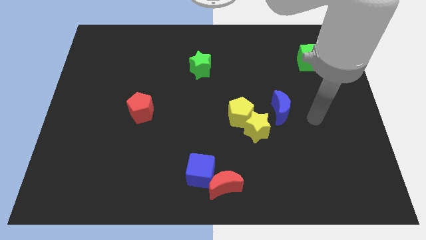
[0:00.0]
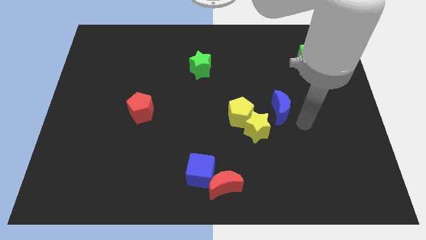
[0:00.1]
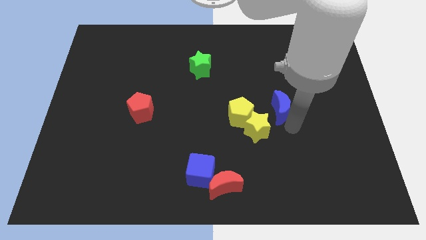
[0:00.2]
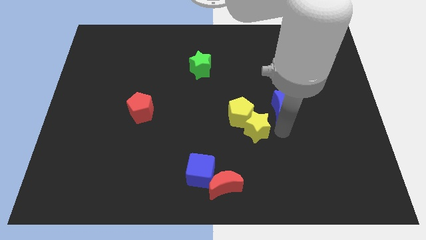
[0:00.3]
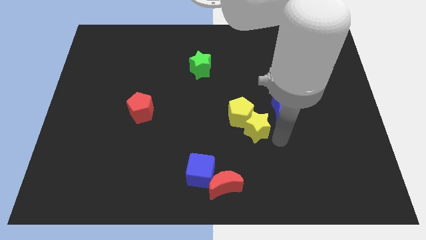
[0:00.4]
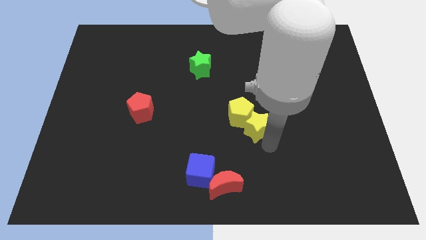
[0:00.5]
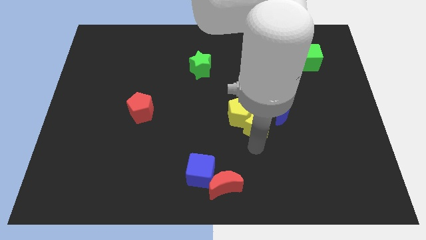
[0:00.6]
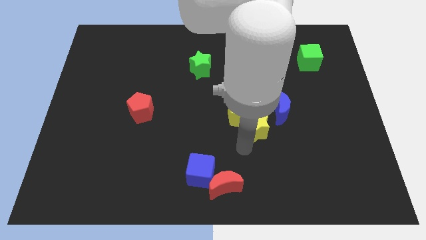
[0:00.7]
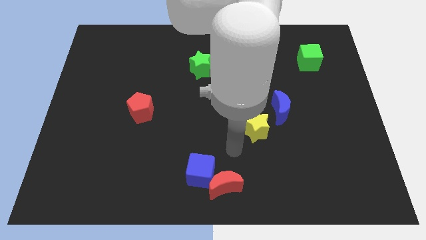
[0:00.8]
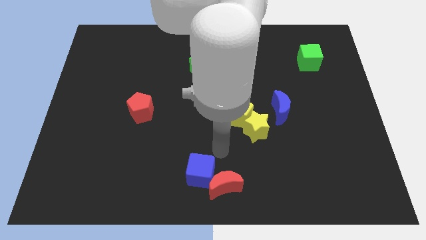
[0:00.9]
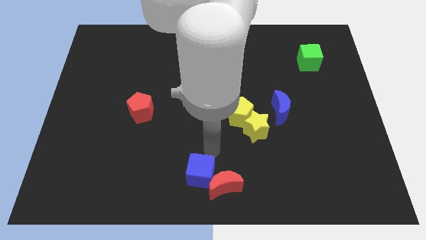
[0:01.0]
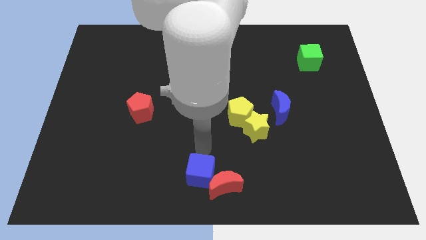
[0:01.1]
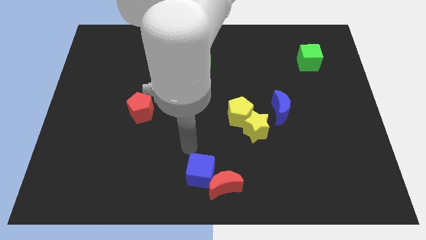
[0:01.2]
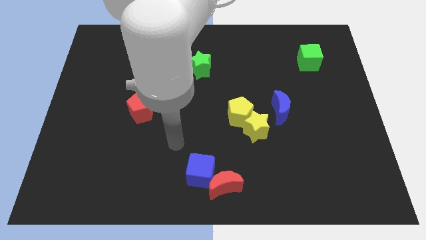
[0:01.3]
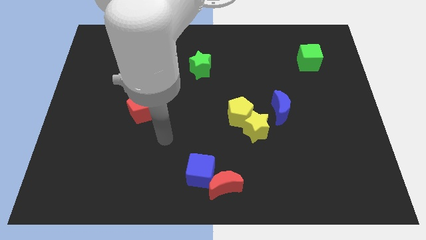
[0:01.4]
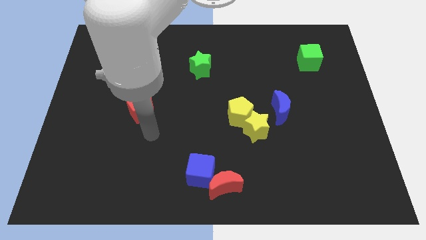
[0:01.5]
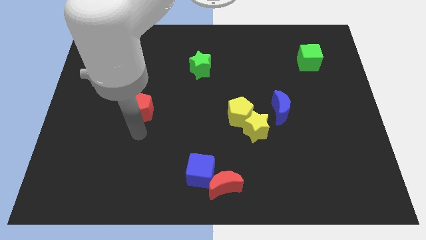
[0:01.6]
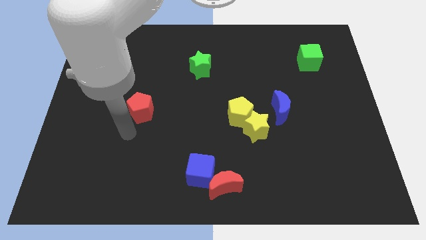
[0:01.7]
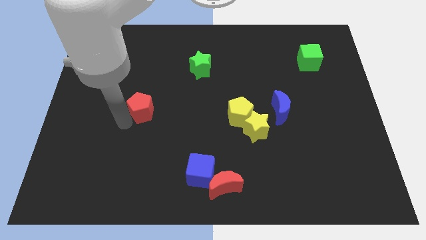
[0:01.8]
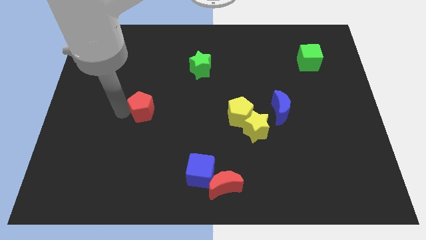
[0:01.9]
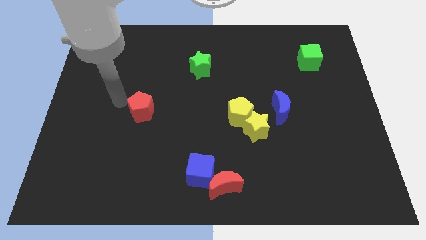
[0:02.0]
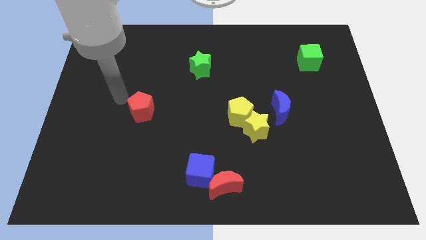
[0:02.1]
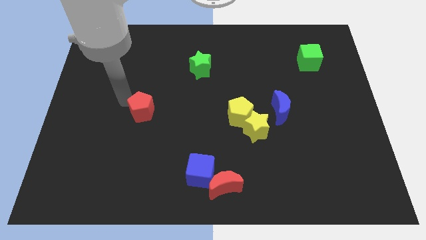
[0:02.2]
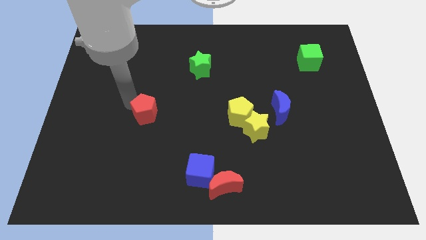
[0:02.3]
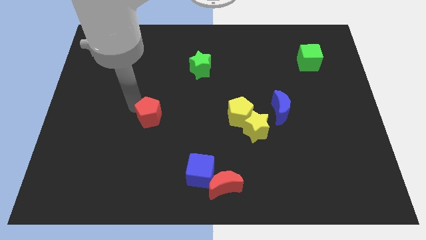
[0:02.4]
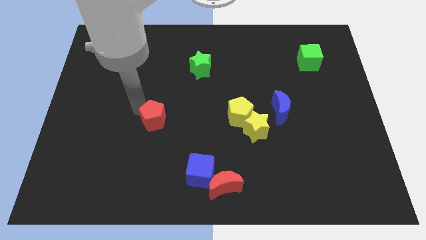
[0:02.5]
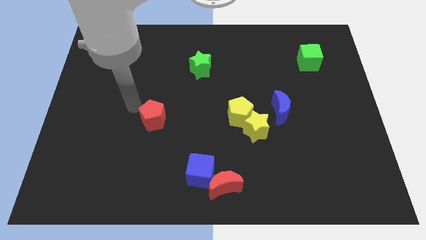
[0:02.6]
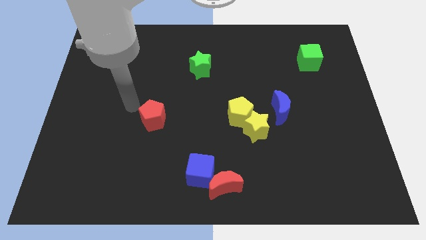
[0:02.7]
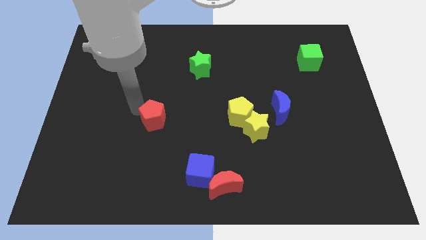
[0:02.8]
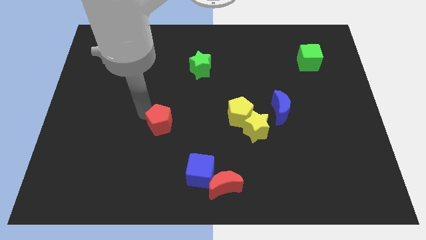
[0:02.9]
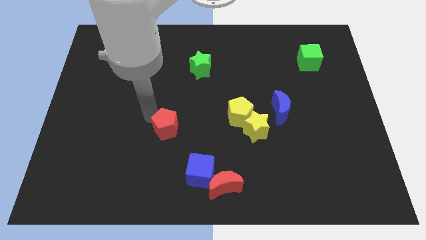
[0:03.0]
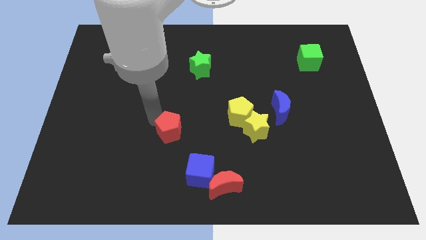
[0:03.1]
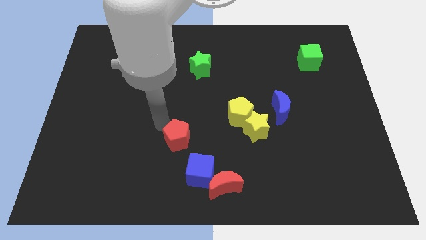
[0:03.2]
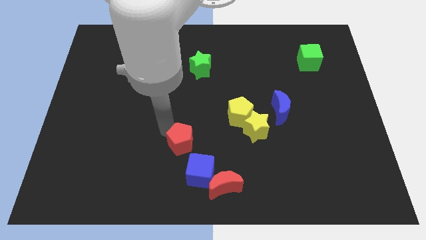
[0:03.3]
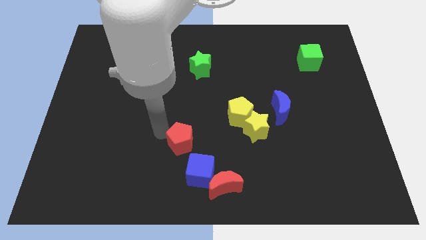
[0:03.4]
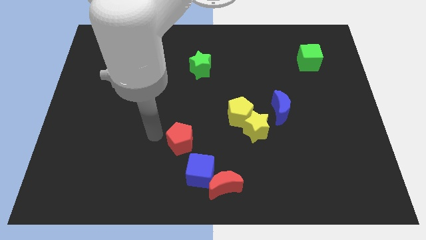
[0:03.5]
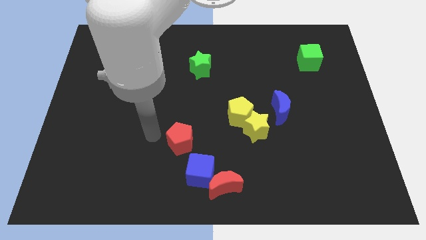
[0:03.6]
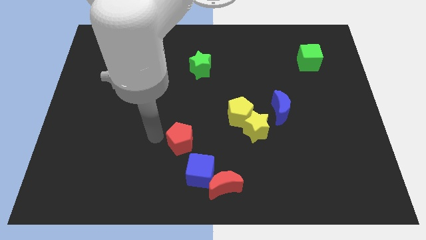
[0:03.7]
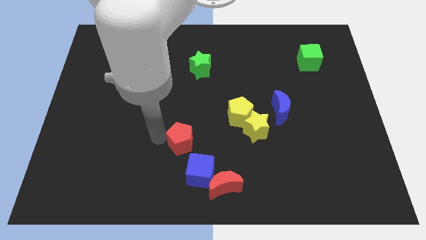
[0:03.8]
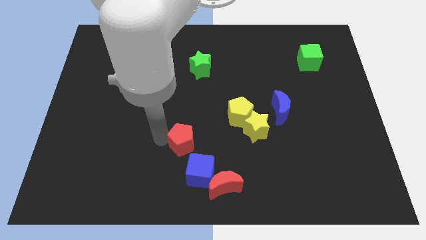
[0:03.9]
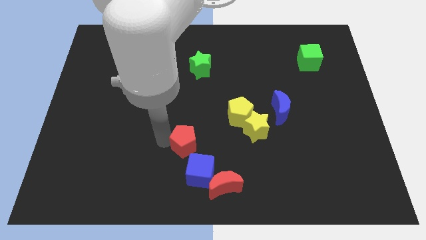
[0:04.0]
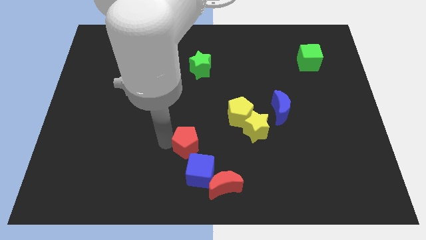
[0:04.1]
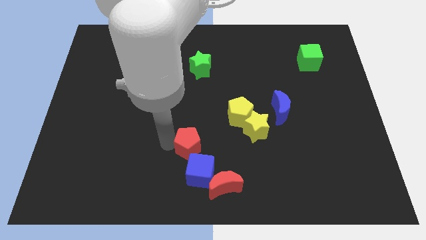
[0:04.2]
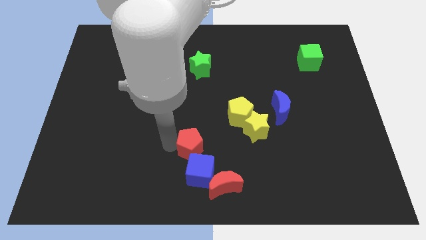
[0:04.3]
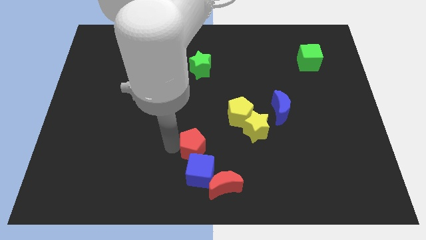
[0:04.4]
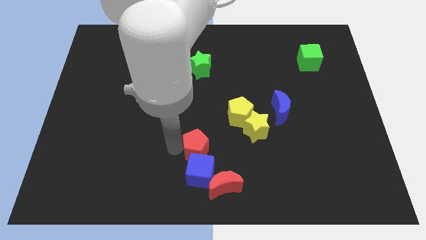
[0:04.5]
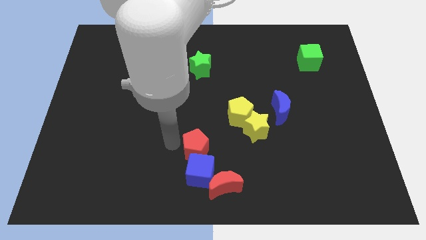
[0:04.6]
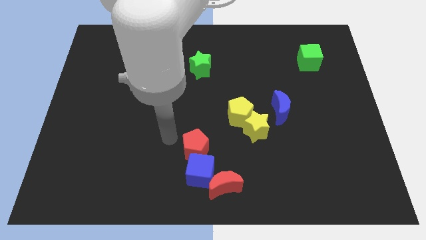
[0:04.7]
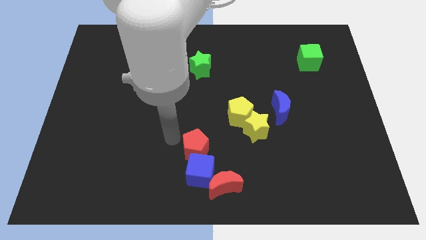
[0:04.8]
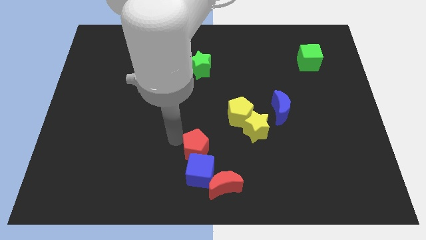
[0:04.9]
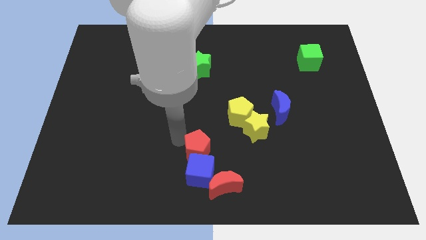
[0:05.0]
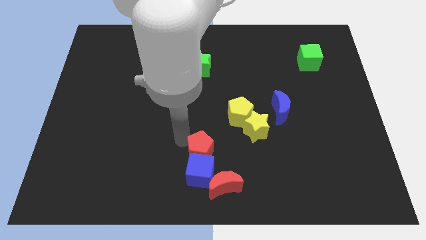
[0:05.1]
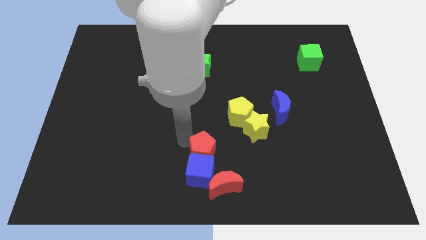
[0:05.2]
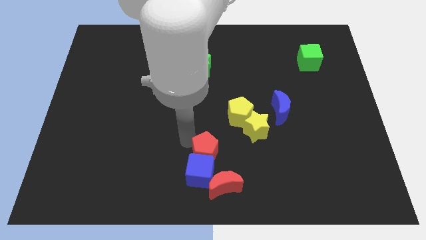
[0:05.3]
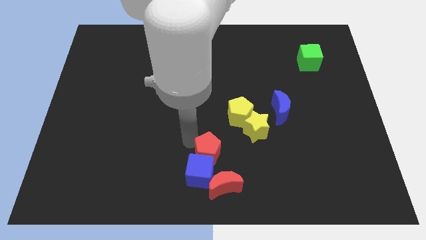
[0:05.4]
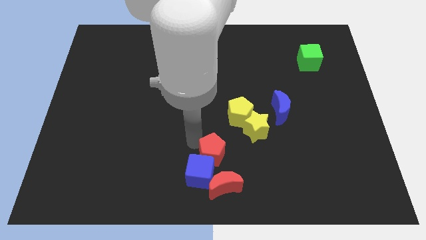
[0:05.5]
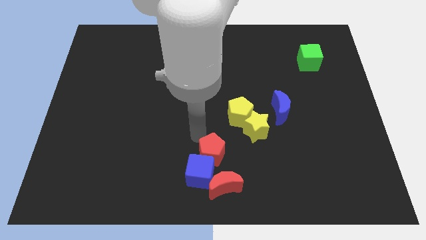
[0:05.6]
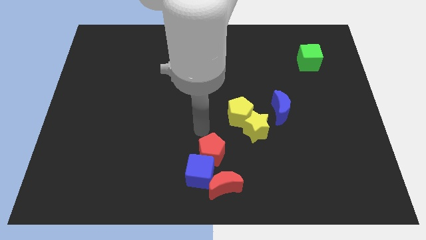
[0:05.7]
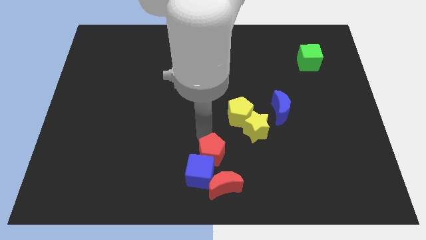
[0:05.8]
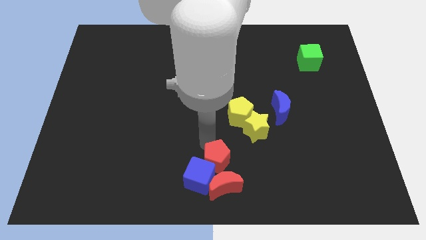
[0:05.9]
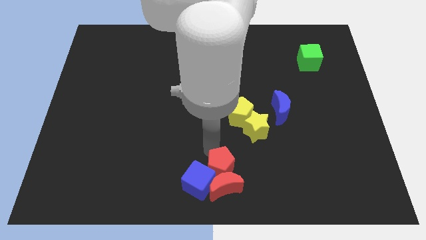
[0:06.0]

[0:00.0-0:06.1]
slide the red pentagon next to the red moon
